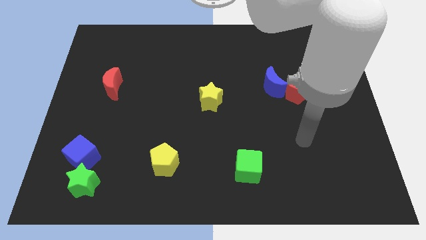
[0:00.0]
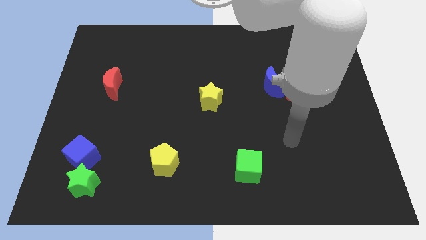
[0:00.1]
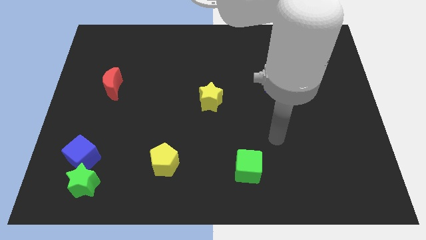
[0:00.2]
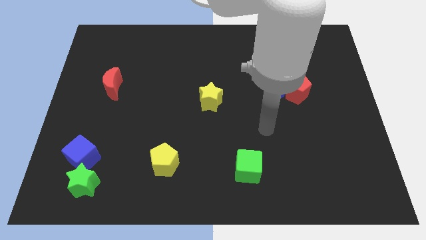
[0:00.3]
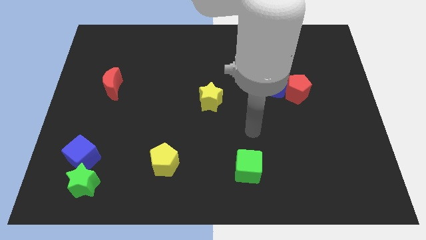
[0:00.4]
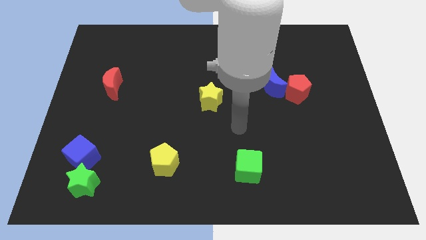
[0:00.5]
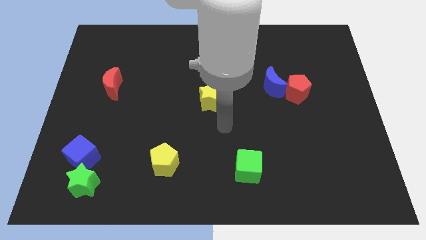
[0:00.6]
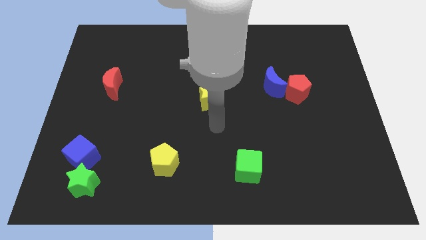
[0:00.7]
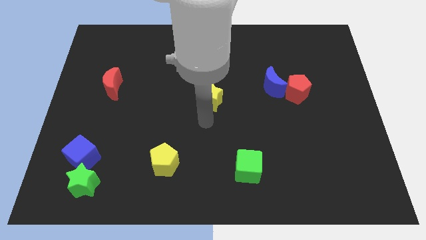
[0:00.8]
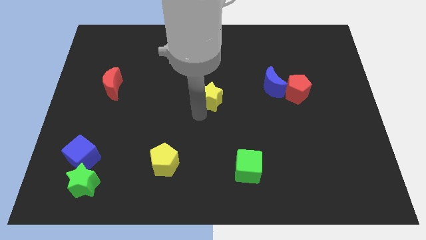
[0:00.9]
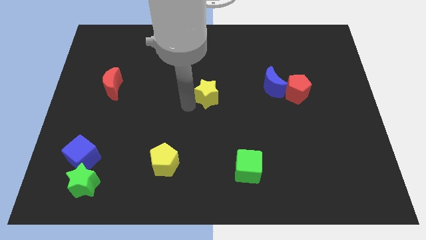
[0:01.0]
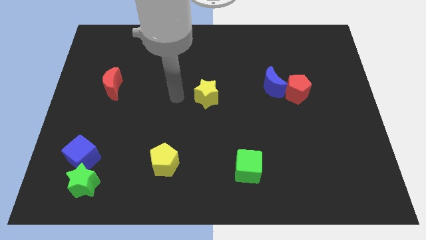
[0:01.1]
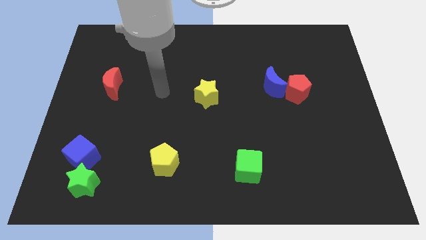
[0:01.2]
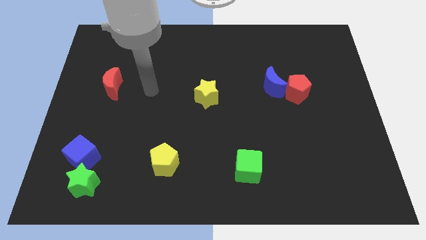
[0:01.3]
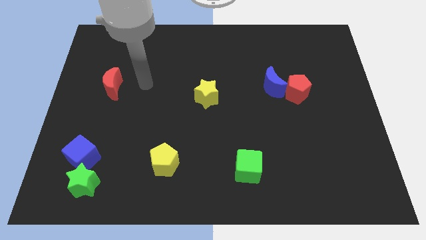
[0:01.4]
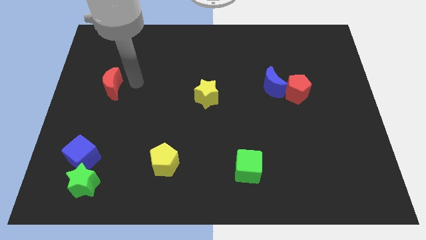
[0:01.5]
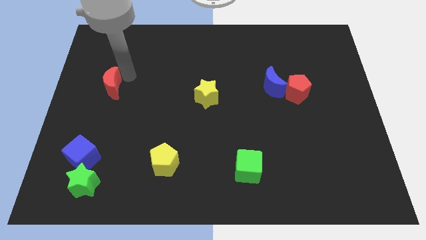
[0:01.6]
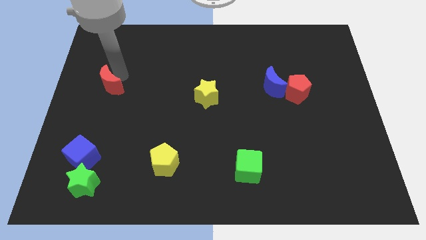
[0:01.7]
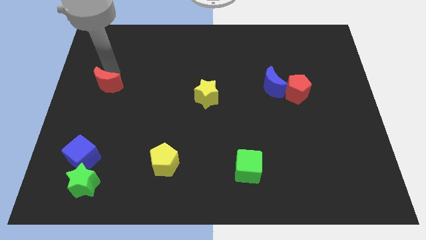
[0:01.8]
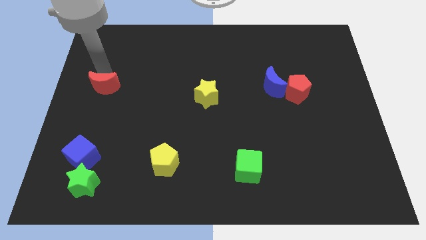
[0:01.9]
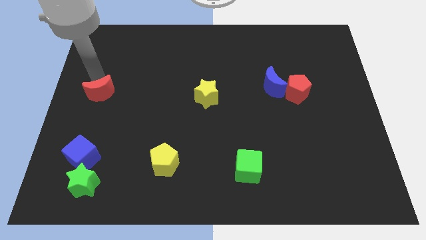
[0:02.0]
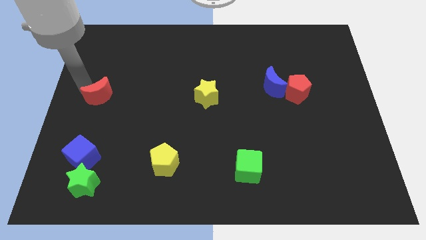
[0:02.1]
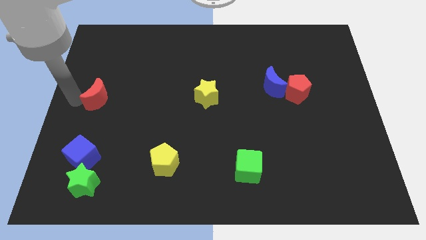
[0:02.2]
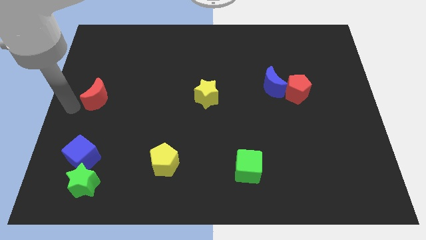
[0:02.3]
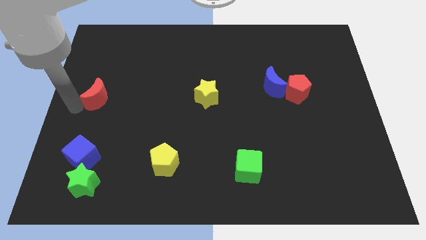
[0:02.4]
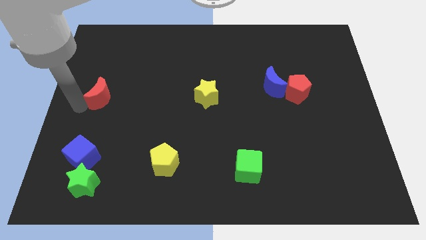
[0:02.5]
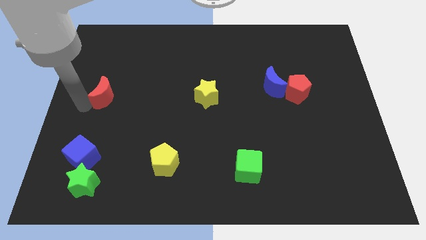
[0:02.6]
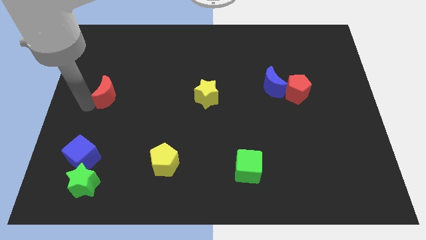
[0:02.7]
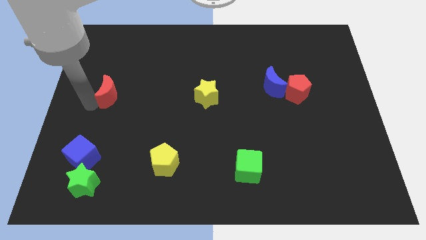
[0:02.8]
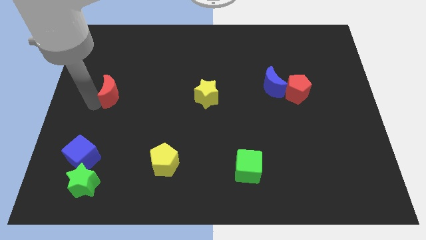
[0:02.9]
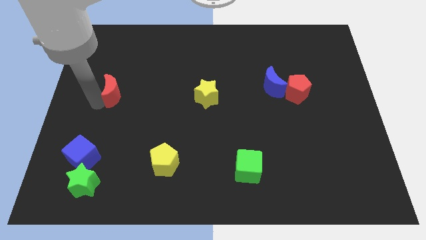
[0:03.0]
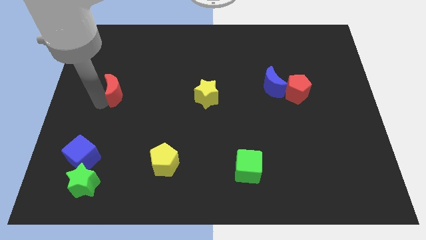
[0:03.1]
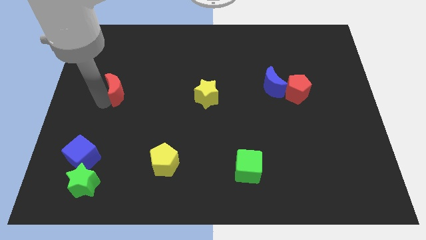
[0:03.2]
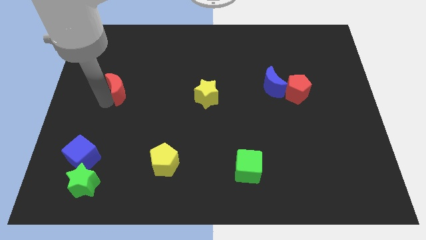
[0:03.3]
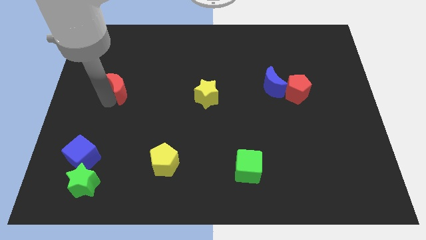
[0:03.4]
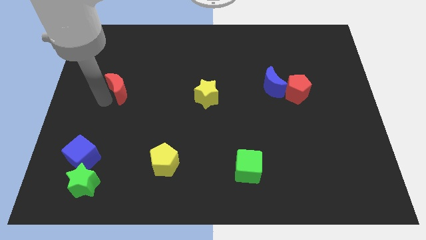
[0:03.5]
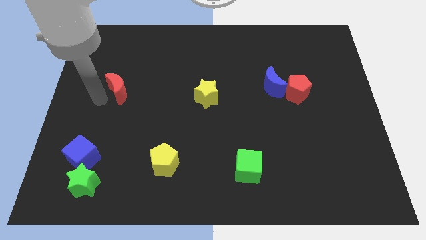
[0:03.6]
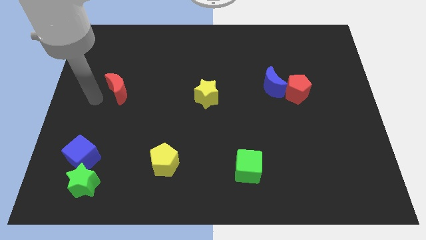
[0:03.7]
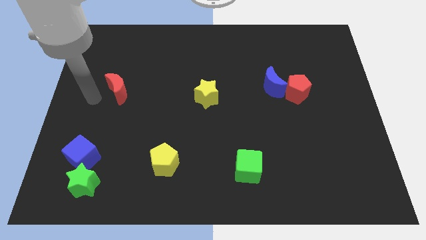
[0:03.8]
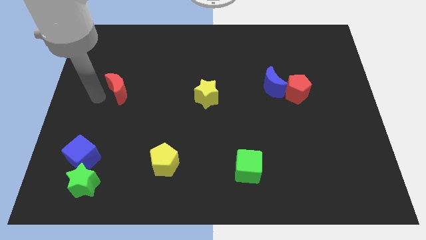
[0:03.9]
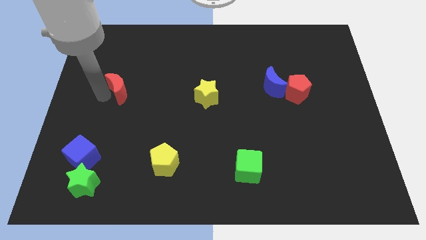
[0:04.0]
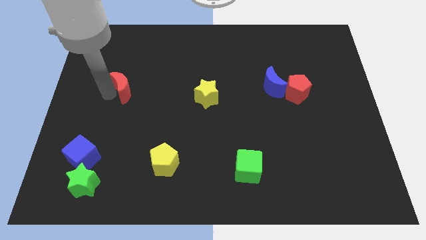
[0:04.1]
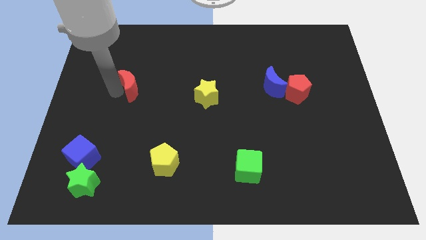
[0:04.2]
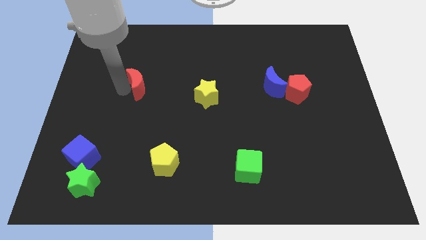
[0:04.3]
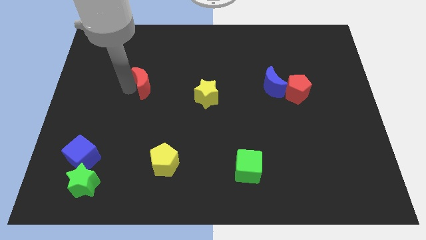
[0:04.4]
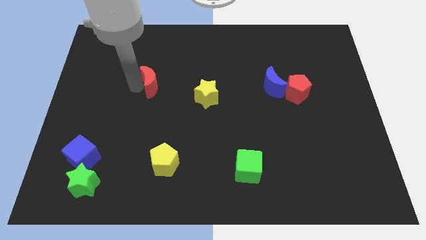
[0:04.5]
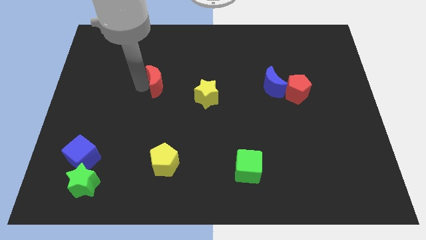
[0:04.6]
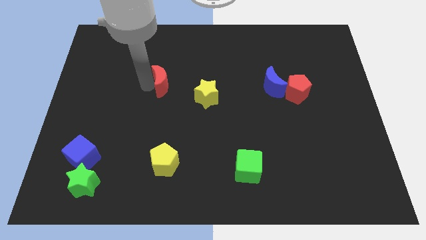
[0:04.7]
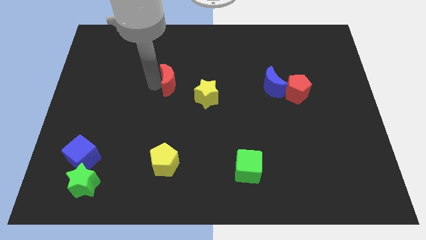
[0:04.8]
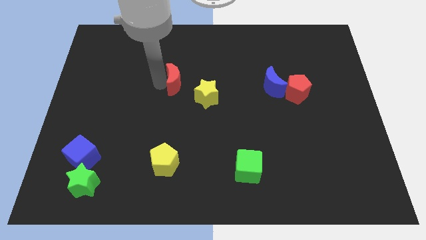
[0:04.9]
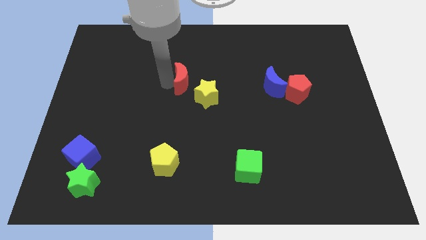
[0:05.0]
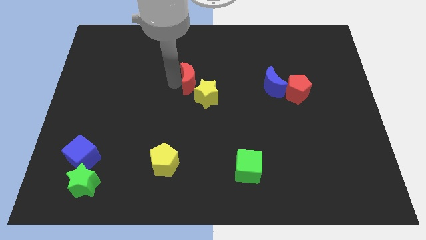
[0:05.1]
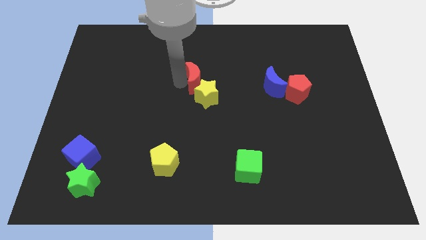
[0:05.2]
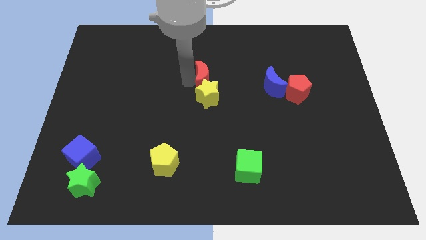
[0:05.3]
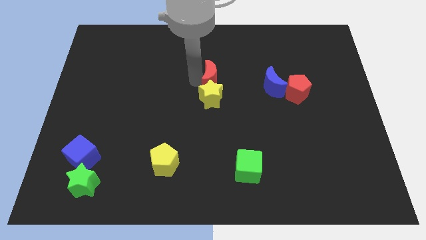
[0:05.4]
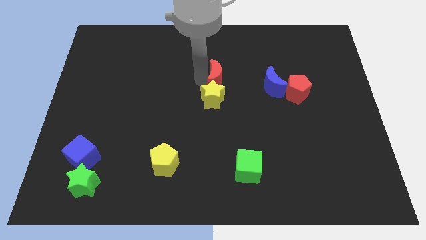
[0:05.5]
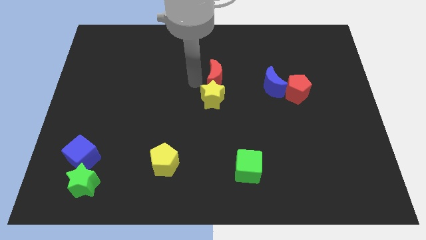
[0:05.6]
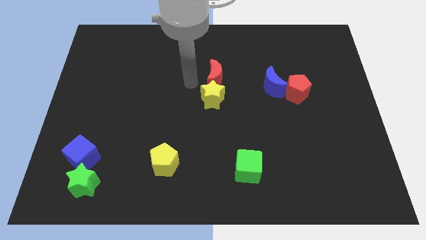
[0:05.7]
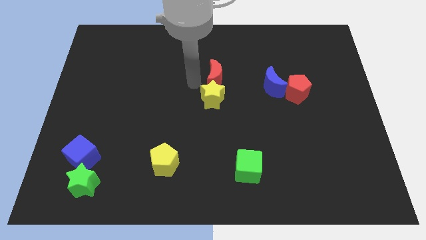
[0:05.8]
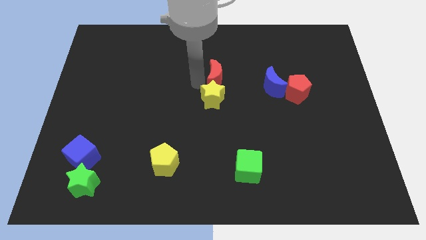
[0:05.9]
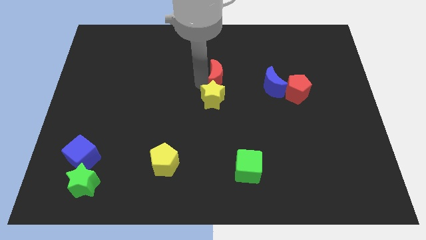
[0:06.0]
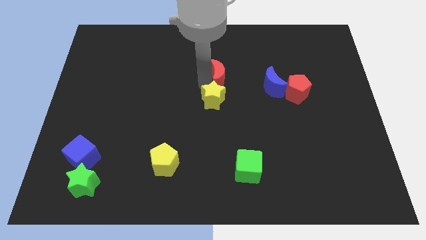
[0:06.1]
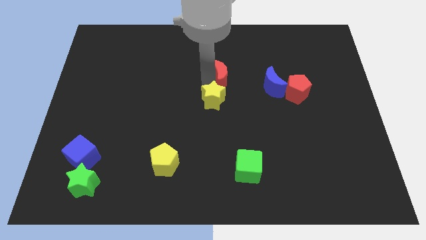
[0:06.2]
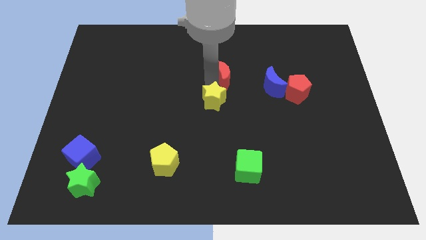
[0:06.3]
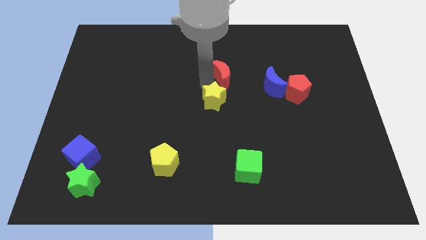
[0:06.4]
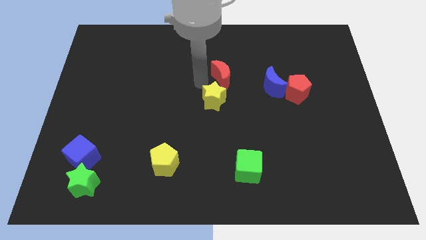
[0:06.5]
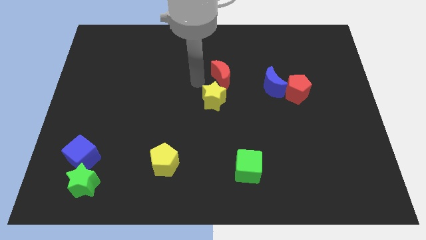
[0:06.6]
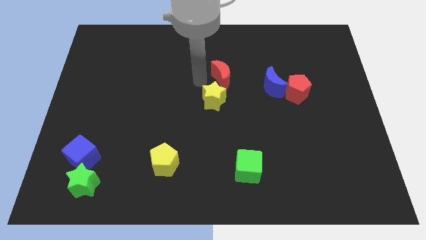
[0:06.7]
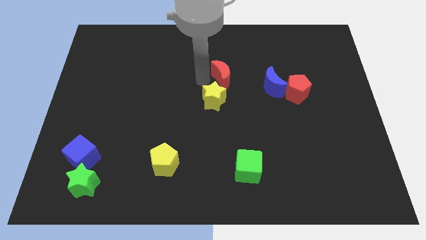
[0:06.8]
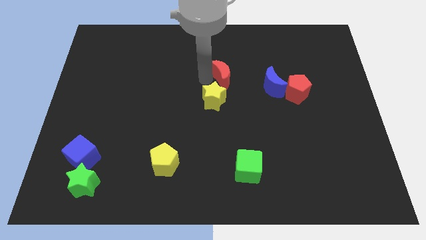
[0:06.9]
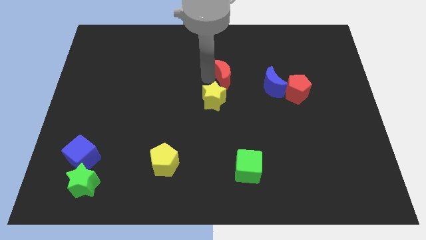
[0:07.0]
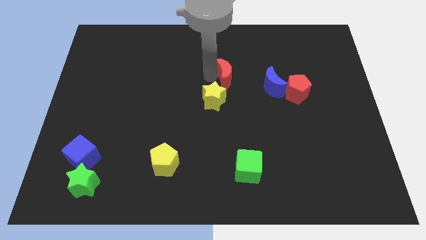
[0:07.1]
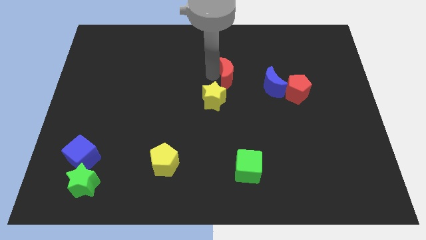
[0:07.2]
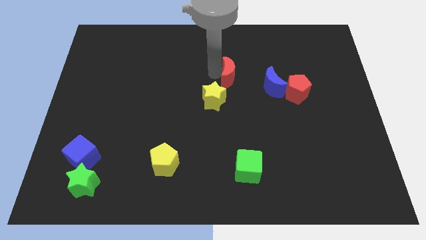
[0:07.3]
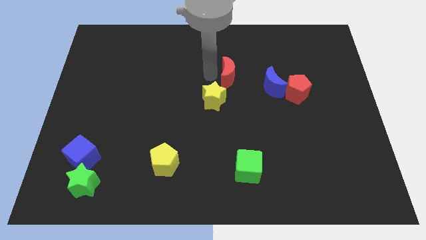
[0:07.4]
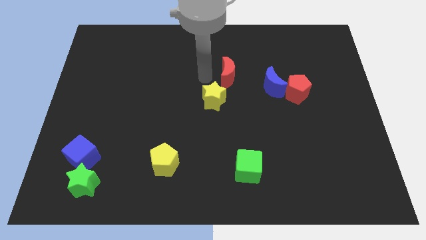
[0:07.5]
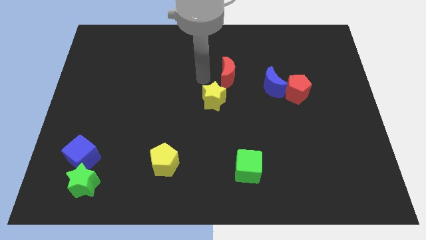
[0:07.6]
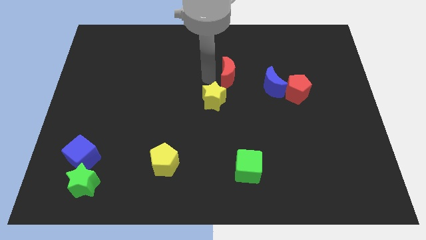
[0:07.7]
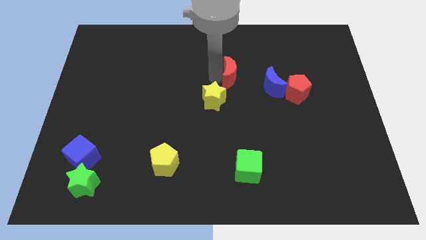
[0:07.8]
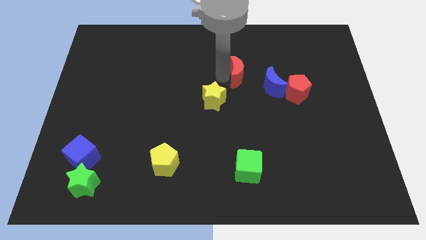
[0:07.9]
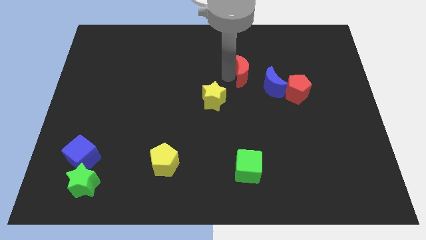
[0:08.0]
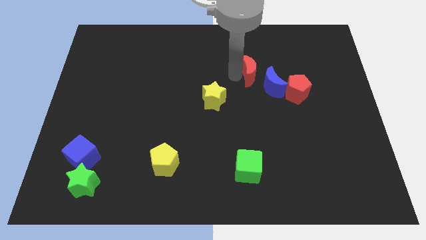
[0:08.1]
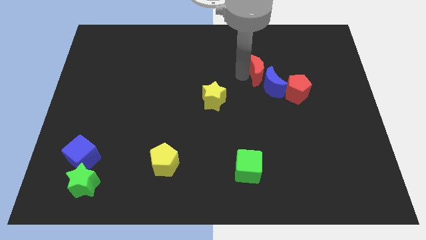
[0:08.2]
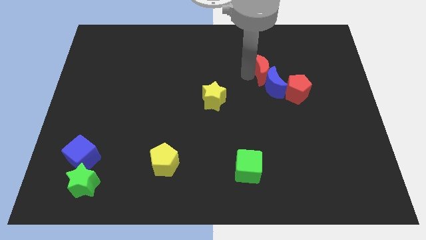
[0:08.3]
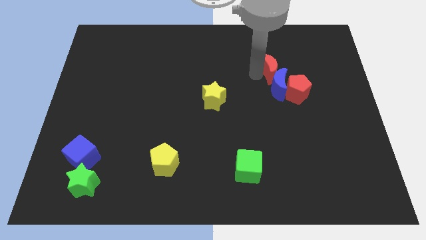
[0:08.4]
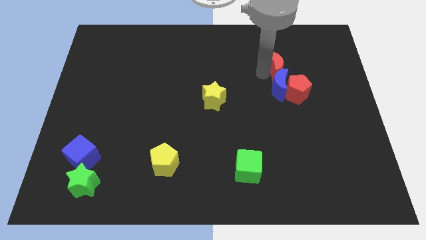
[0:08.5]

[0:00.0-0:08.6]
push the red moon to the top of the red pentagon
